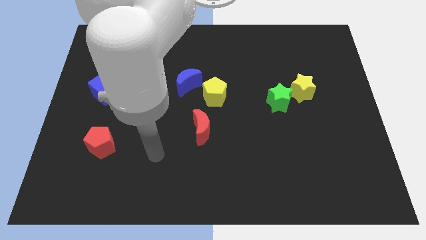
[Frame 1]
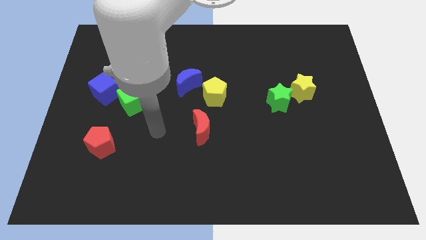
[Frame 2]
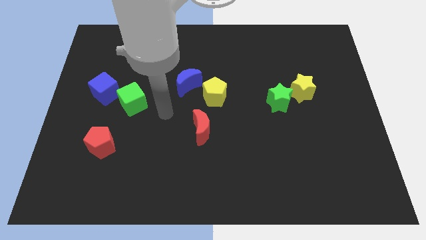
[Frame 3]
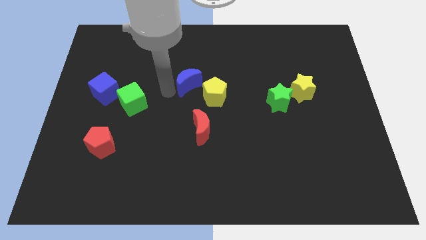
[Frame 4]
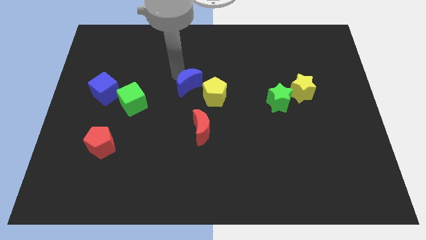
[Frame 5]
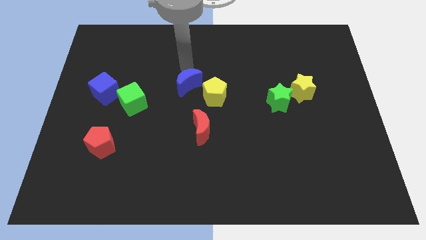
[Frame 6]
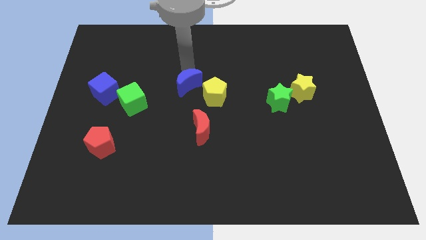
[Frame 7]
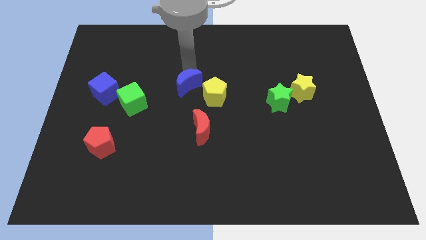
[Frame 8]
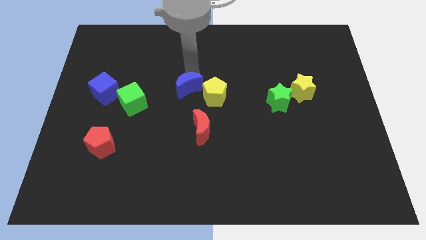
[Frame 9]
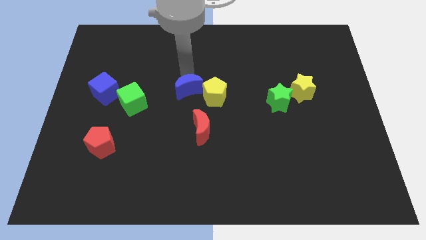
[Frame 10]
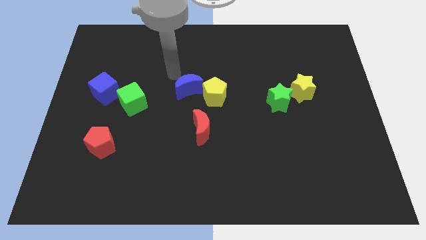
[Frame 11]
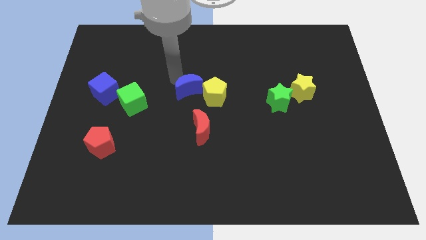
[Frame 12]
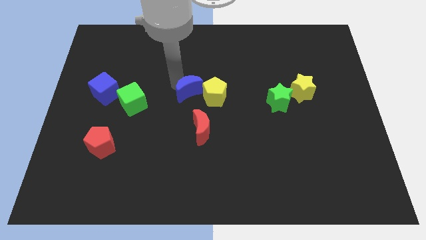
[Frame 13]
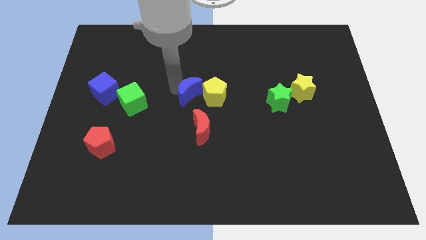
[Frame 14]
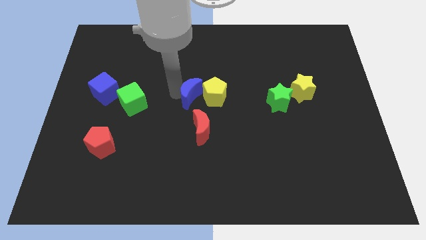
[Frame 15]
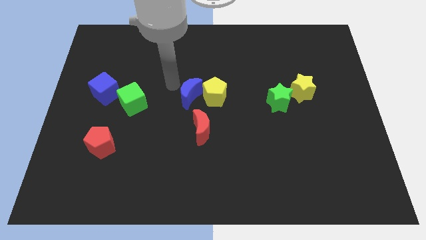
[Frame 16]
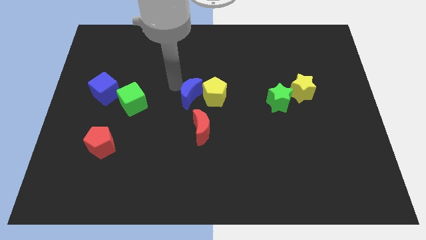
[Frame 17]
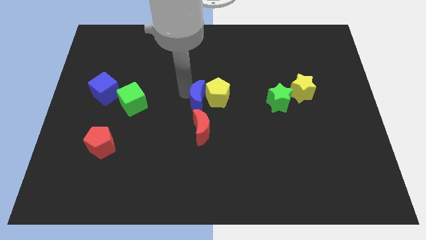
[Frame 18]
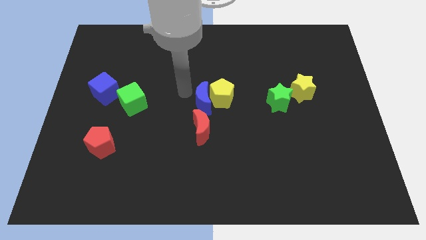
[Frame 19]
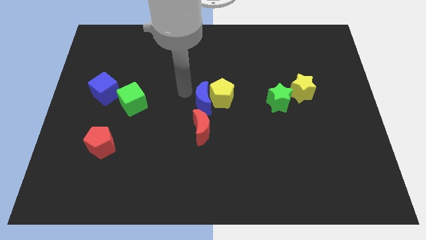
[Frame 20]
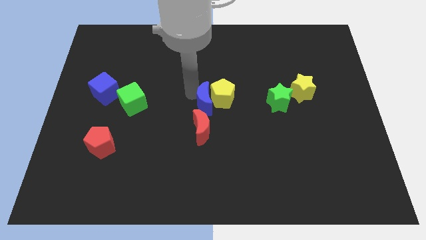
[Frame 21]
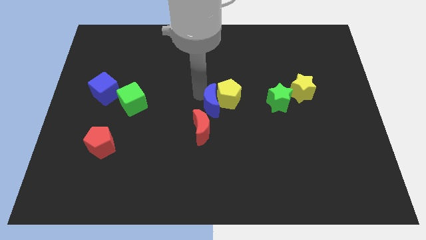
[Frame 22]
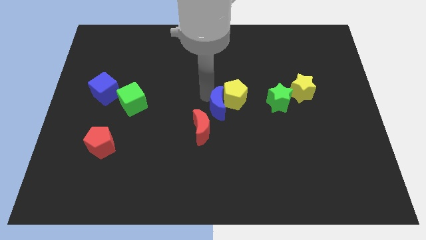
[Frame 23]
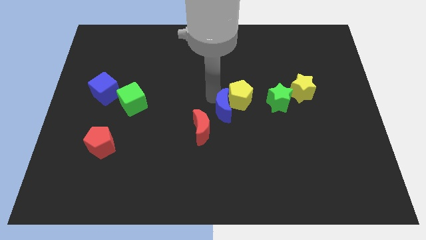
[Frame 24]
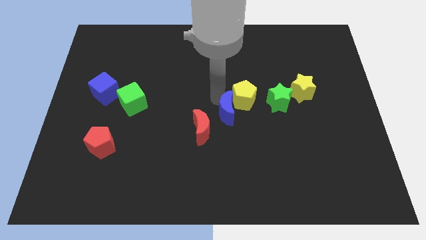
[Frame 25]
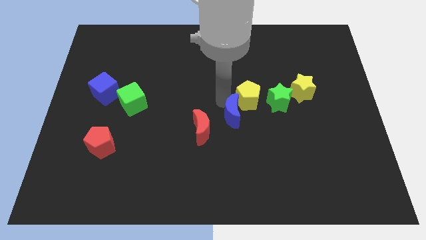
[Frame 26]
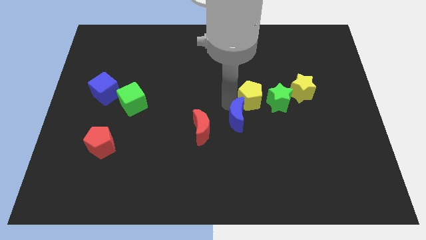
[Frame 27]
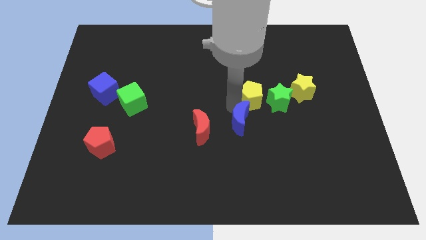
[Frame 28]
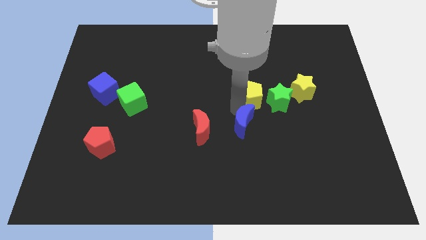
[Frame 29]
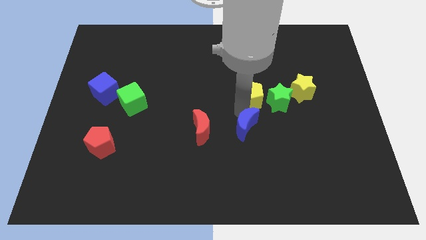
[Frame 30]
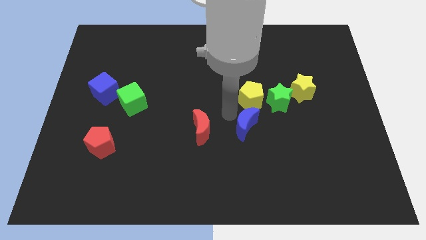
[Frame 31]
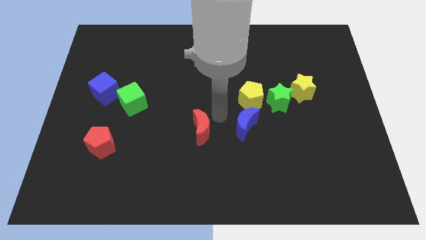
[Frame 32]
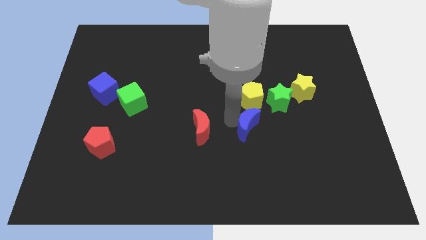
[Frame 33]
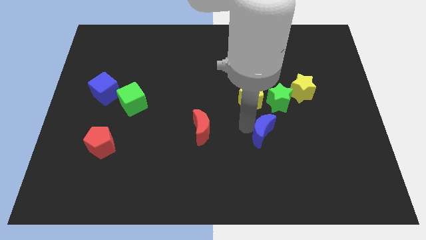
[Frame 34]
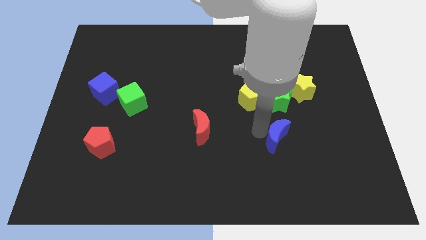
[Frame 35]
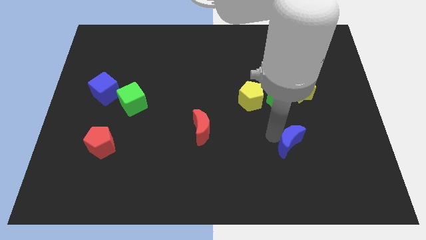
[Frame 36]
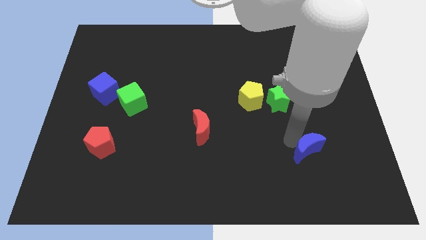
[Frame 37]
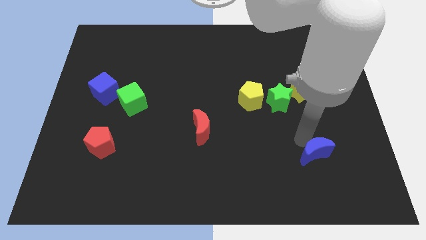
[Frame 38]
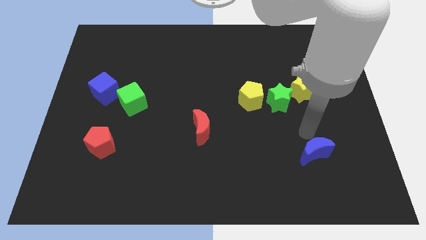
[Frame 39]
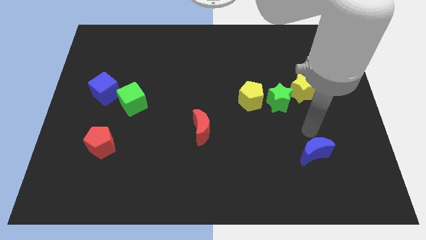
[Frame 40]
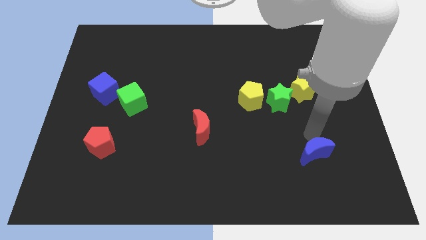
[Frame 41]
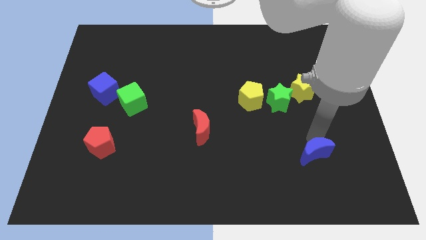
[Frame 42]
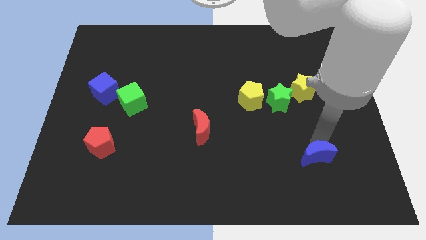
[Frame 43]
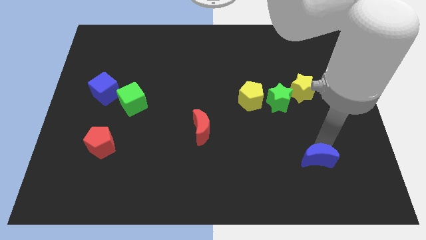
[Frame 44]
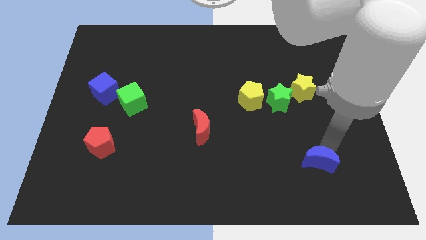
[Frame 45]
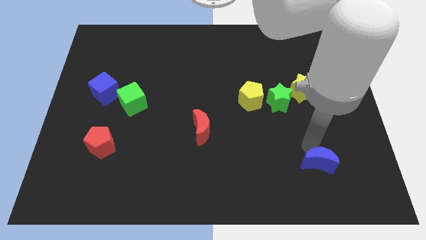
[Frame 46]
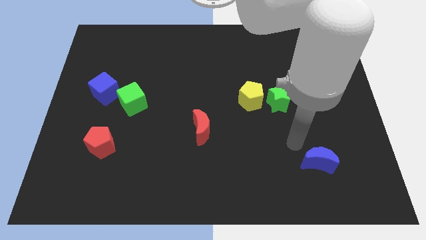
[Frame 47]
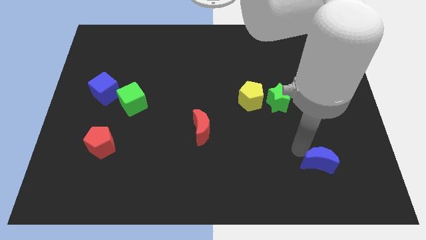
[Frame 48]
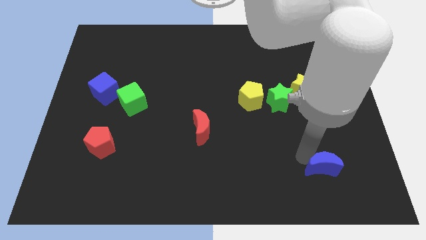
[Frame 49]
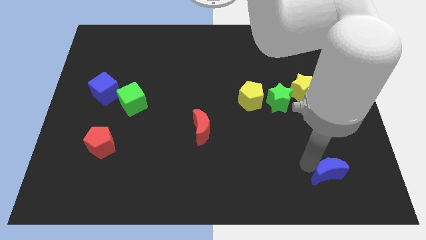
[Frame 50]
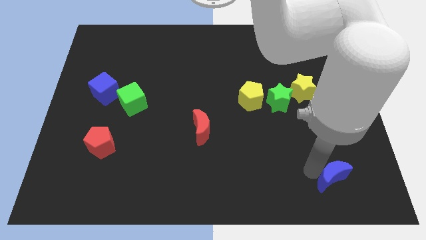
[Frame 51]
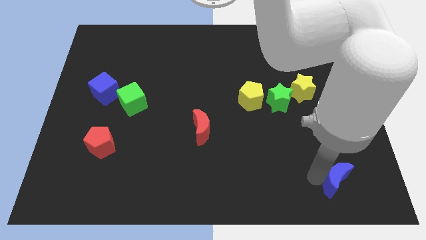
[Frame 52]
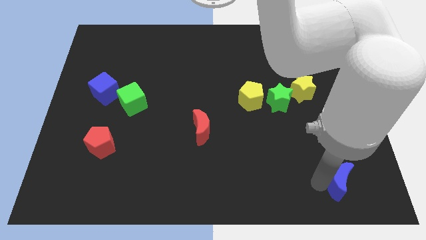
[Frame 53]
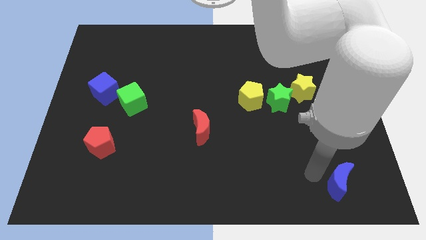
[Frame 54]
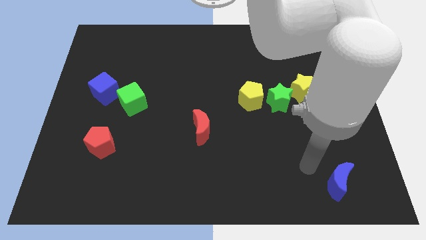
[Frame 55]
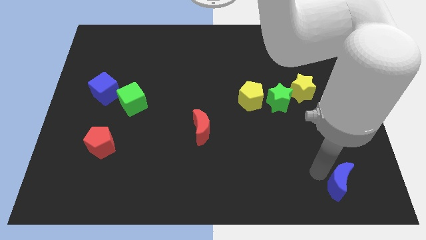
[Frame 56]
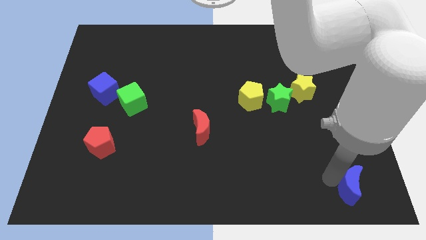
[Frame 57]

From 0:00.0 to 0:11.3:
slide the blue moon to the bottom right of the board
